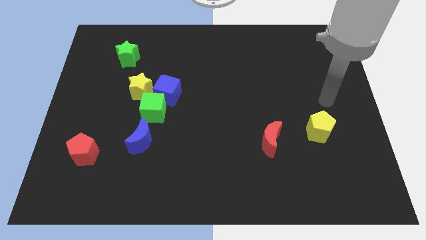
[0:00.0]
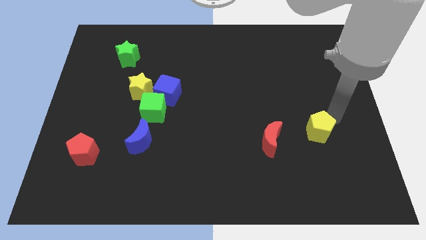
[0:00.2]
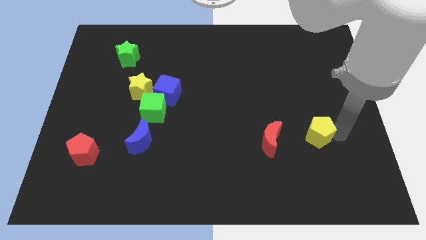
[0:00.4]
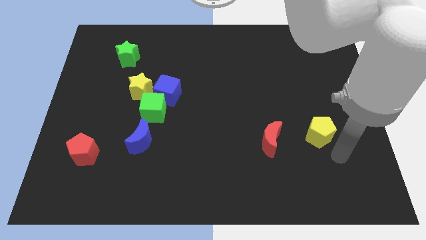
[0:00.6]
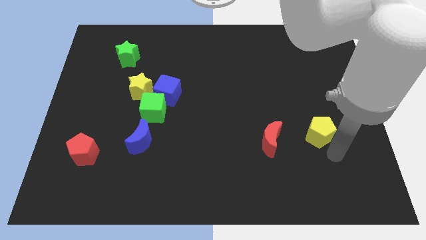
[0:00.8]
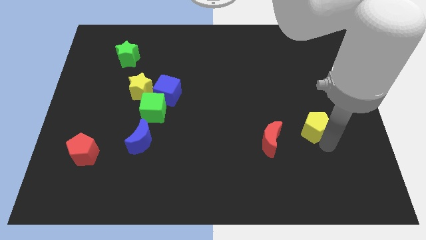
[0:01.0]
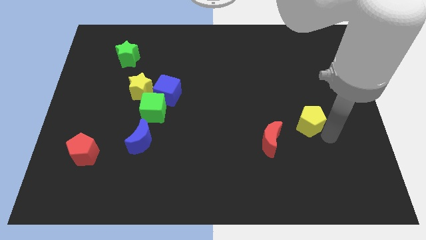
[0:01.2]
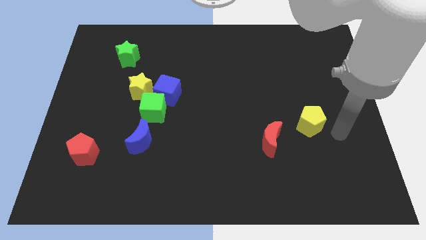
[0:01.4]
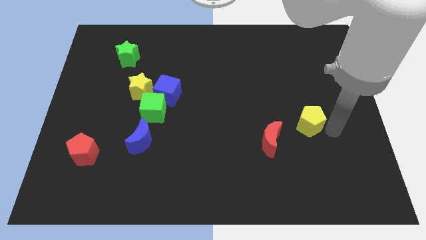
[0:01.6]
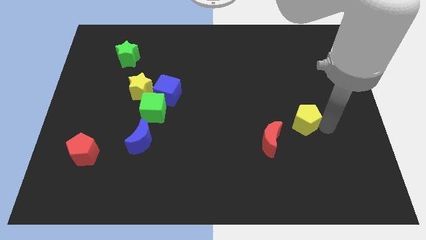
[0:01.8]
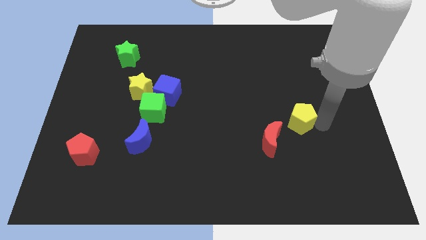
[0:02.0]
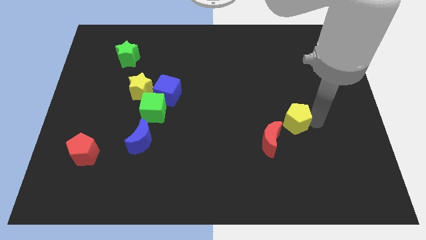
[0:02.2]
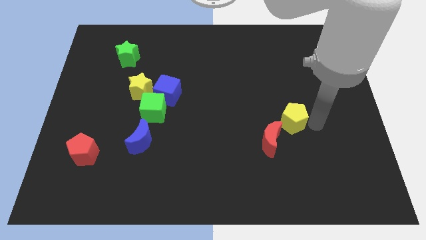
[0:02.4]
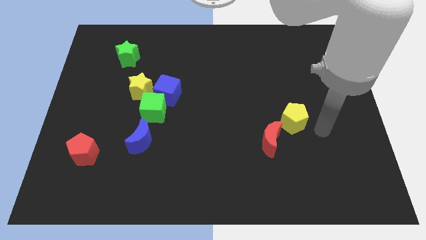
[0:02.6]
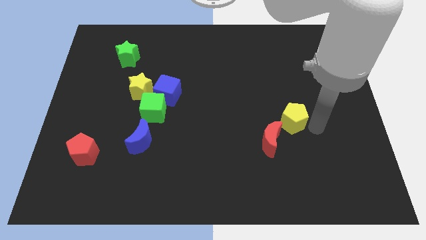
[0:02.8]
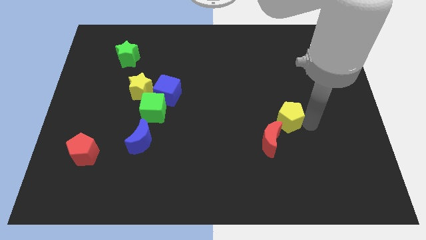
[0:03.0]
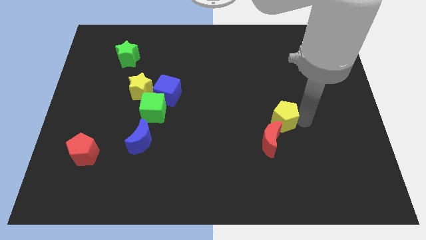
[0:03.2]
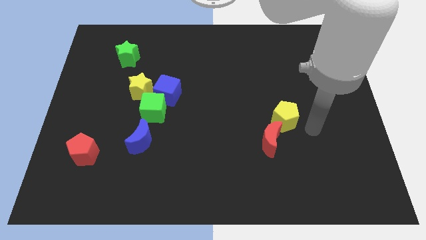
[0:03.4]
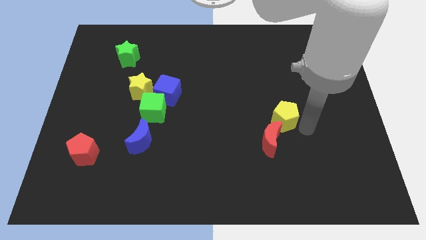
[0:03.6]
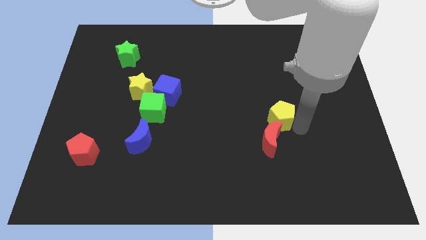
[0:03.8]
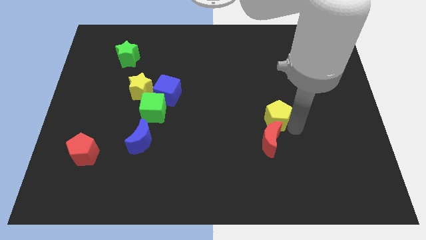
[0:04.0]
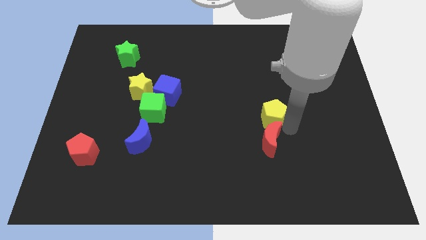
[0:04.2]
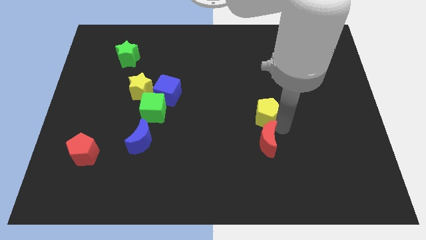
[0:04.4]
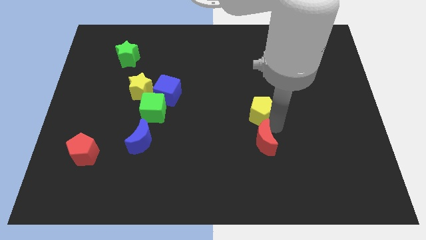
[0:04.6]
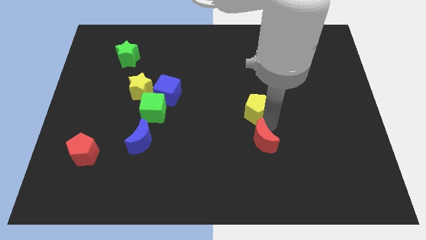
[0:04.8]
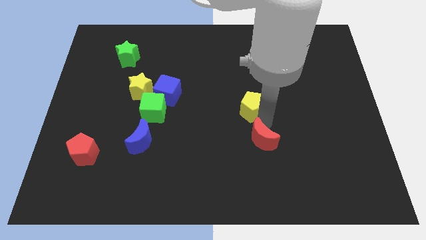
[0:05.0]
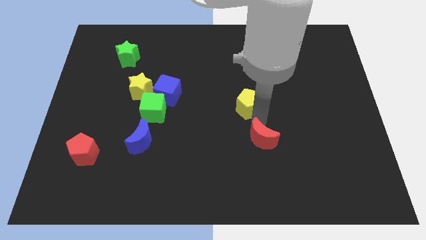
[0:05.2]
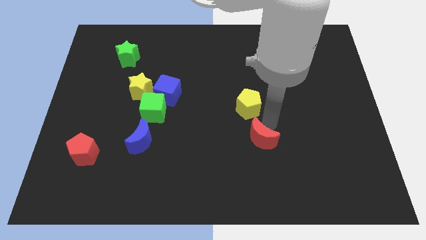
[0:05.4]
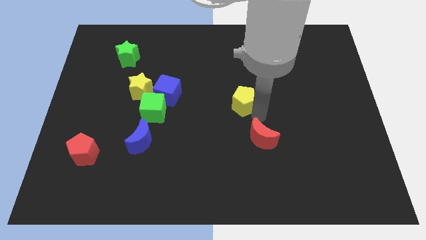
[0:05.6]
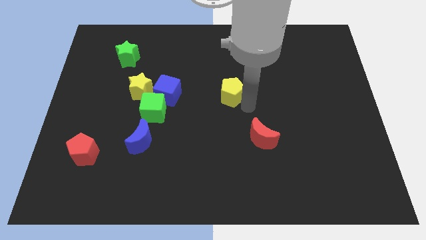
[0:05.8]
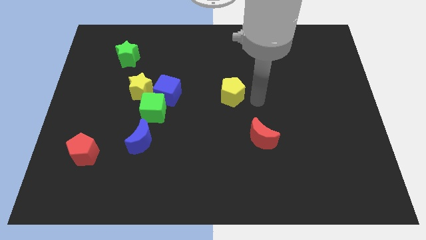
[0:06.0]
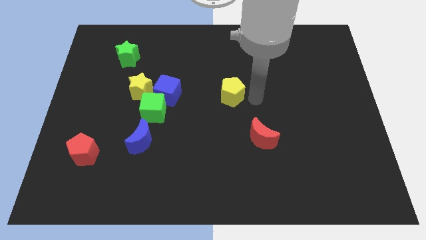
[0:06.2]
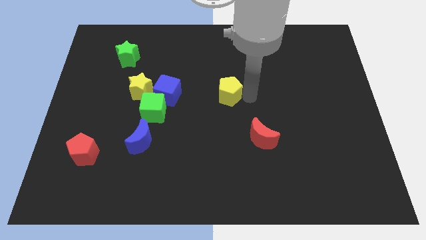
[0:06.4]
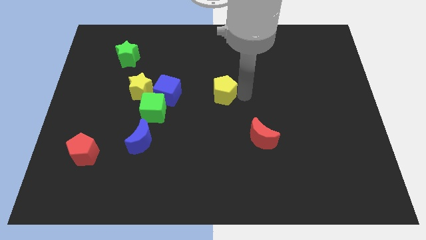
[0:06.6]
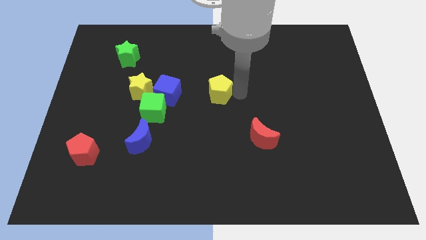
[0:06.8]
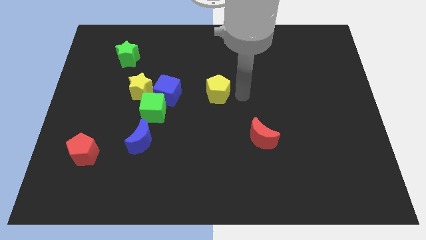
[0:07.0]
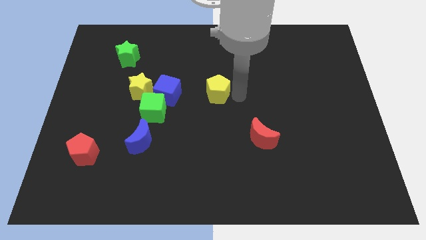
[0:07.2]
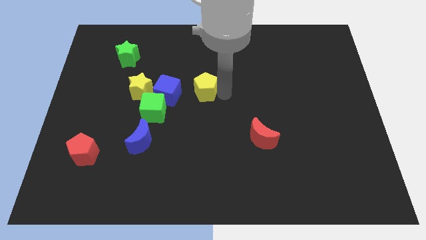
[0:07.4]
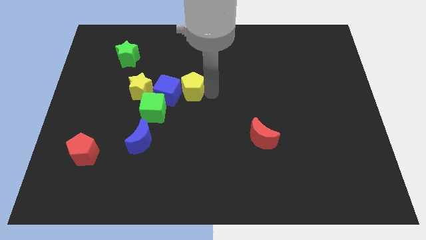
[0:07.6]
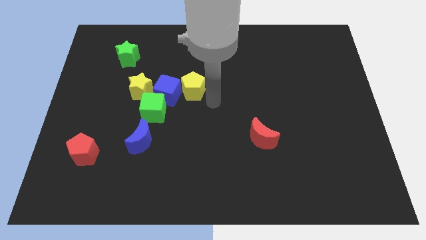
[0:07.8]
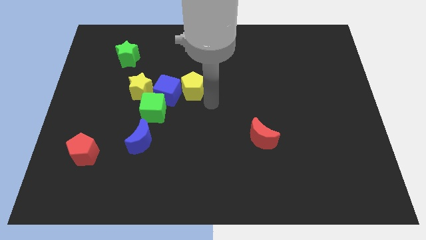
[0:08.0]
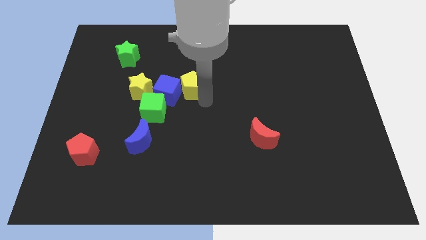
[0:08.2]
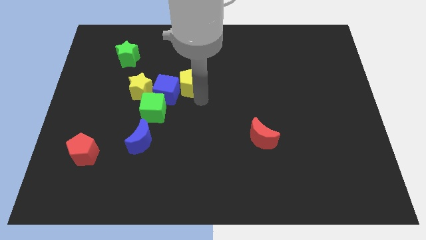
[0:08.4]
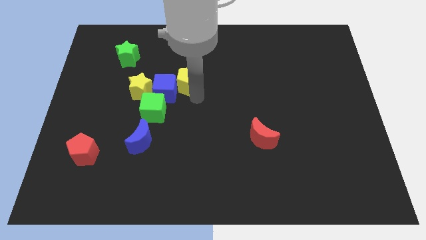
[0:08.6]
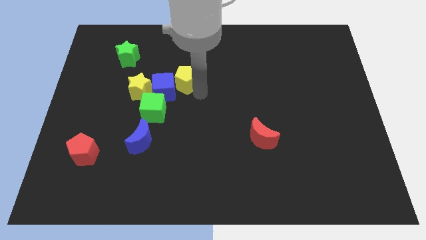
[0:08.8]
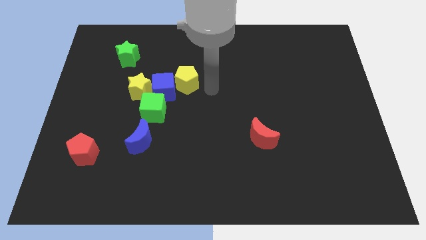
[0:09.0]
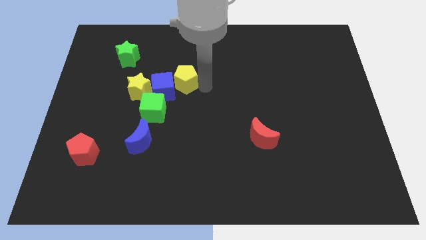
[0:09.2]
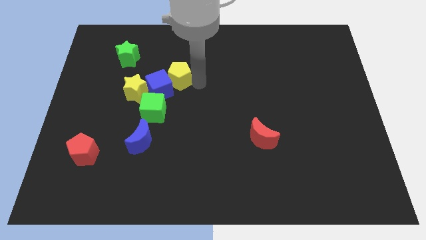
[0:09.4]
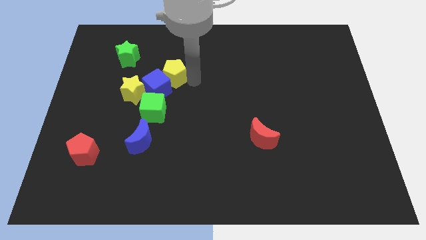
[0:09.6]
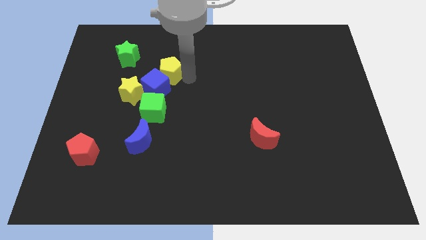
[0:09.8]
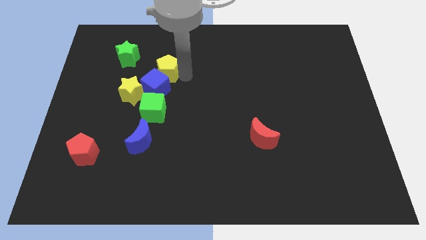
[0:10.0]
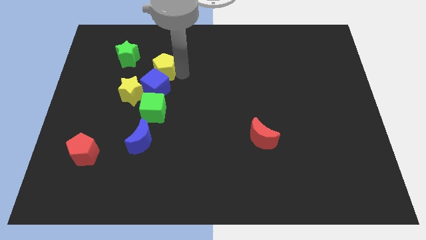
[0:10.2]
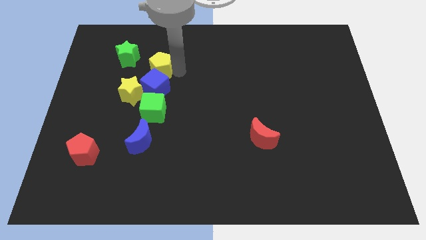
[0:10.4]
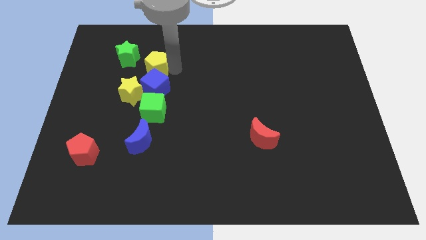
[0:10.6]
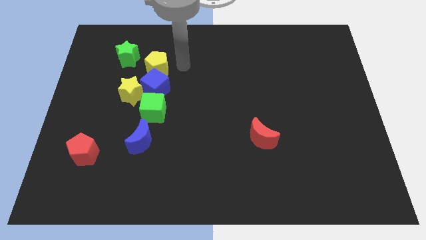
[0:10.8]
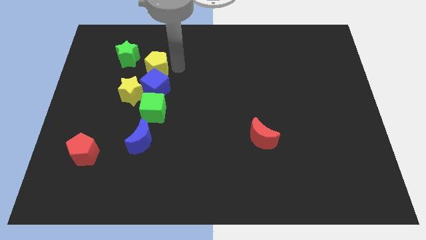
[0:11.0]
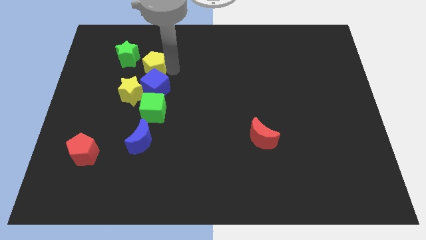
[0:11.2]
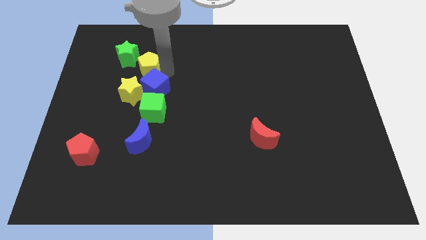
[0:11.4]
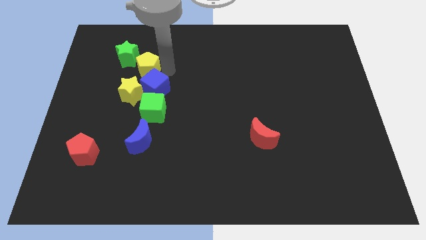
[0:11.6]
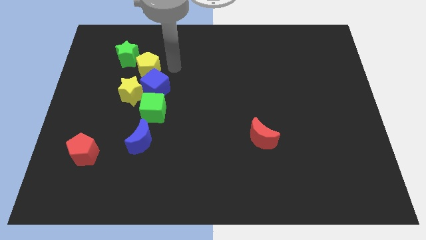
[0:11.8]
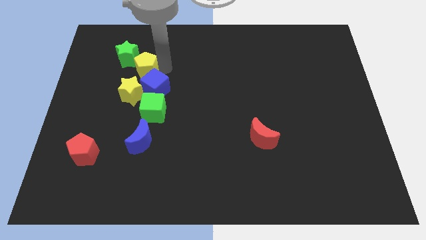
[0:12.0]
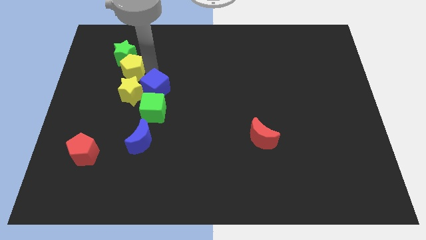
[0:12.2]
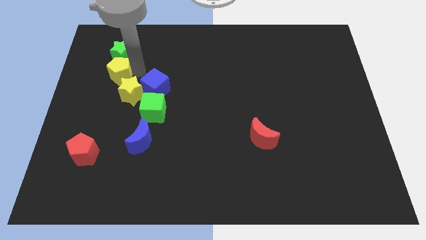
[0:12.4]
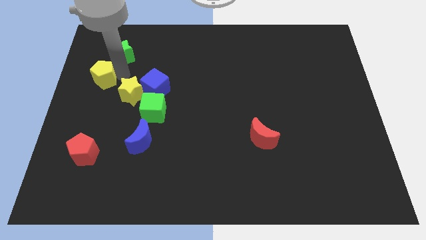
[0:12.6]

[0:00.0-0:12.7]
slide the yellow pentagon to the left side of the board
